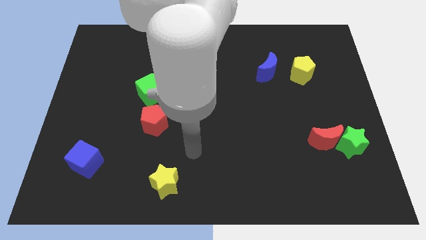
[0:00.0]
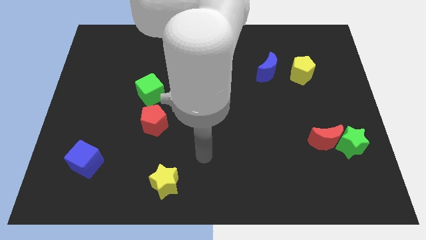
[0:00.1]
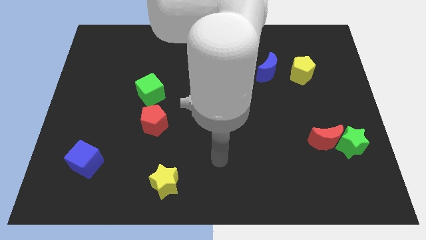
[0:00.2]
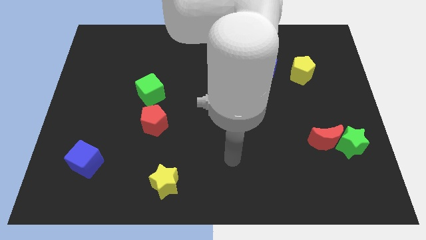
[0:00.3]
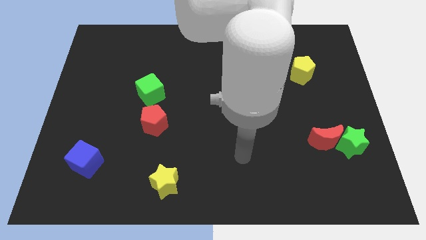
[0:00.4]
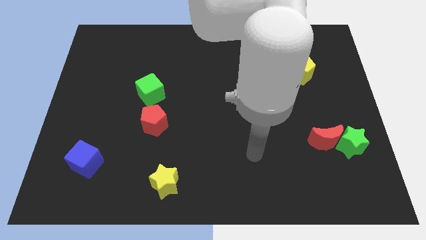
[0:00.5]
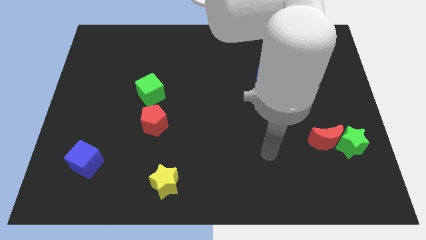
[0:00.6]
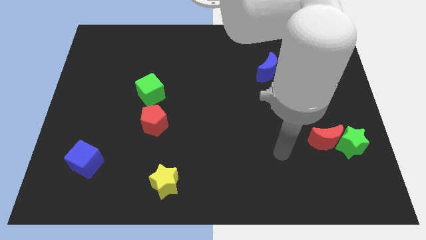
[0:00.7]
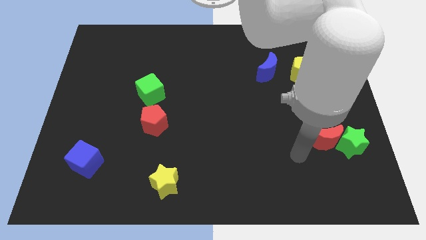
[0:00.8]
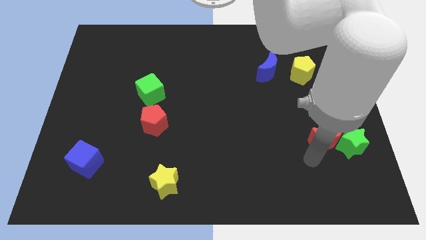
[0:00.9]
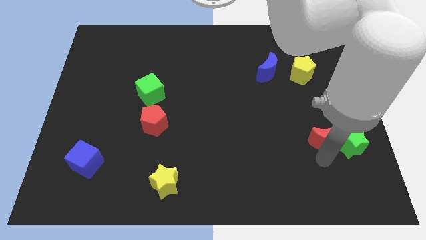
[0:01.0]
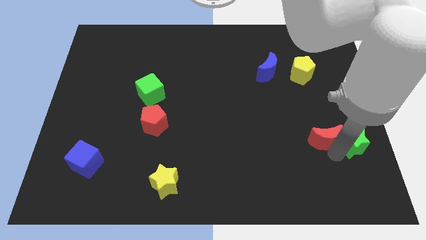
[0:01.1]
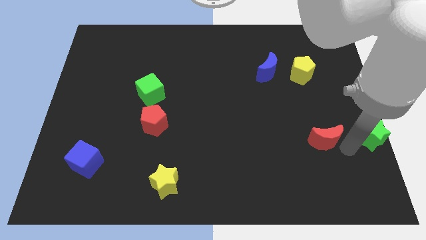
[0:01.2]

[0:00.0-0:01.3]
separate the red moon from the green star

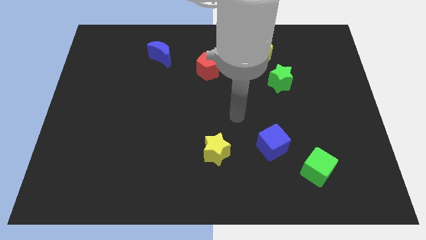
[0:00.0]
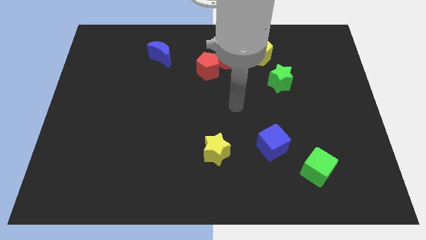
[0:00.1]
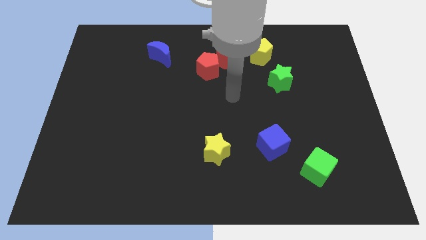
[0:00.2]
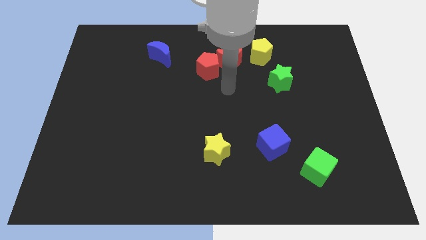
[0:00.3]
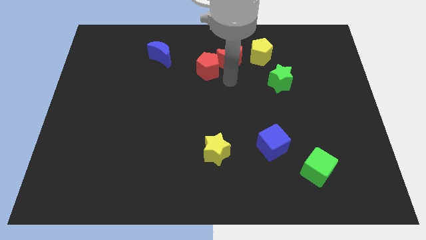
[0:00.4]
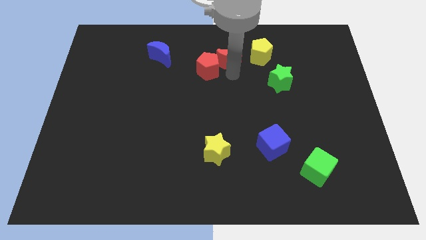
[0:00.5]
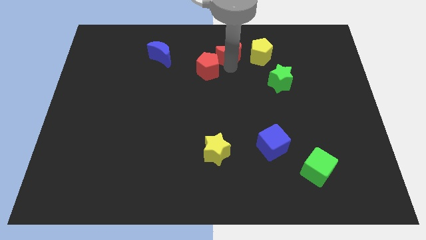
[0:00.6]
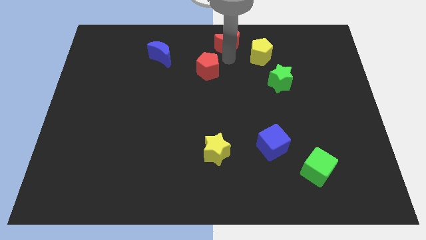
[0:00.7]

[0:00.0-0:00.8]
pull the red pentagon apart from the red moon

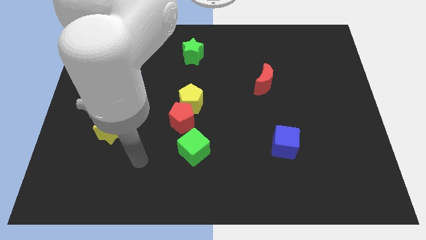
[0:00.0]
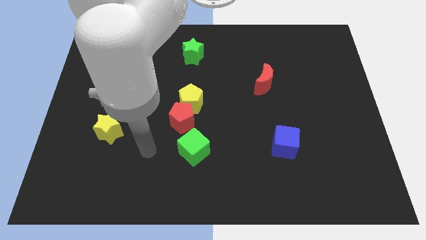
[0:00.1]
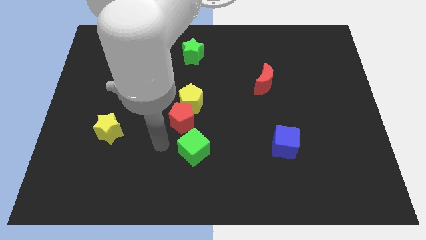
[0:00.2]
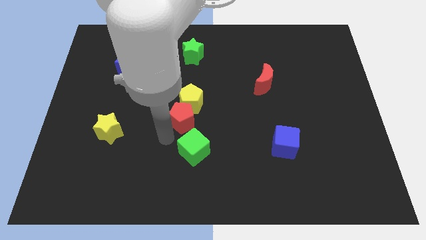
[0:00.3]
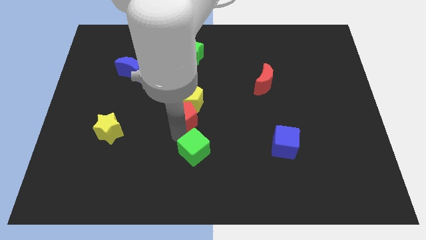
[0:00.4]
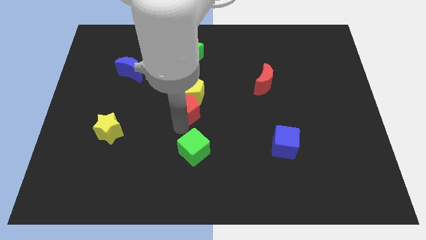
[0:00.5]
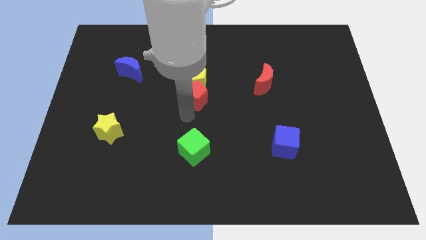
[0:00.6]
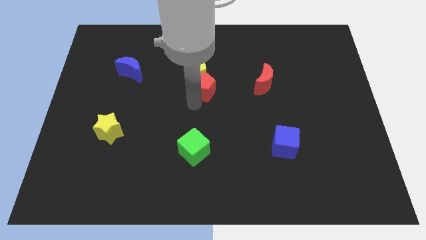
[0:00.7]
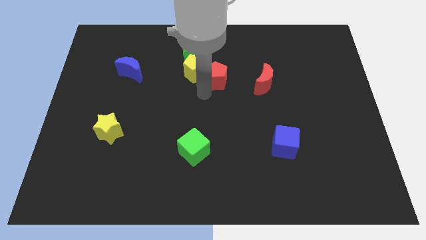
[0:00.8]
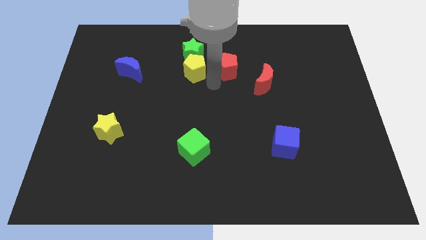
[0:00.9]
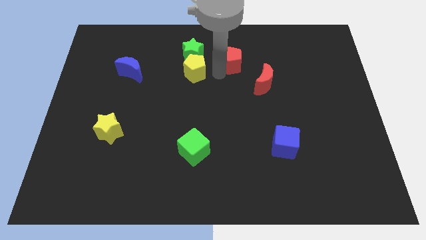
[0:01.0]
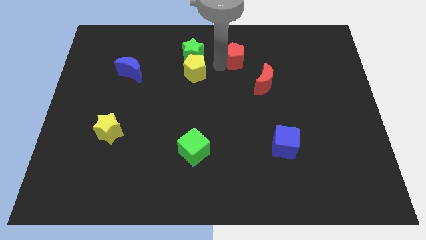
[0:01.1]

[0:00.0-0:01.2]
move the yellow pentagon away from the red pentagon

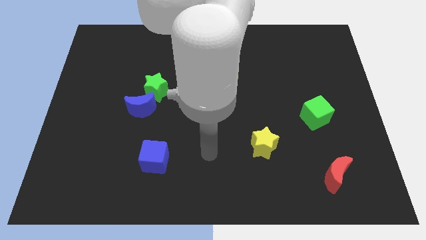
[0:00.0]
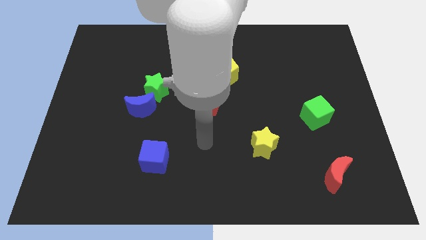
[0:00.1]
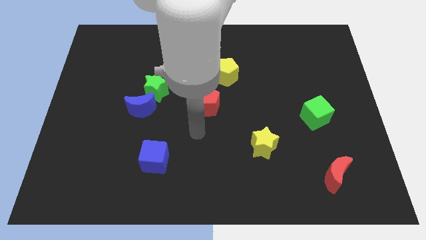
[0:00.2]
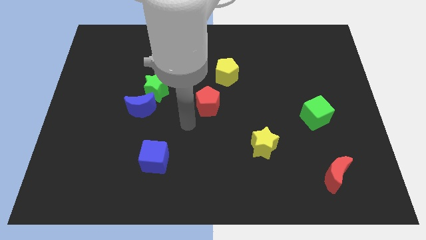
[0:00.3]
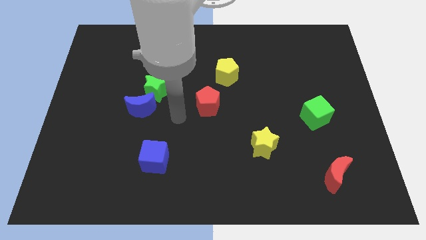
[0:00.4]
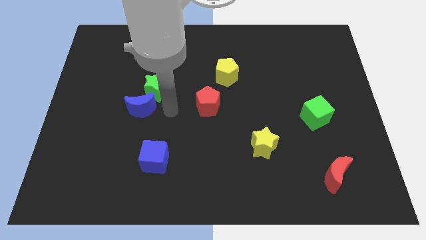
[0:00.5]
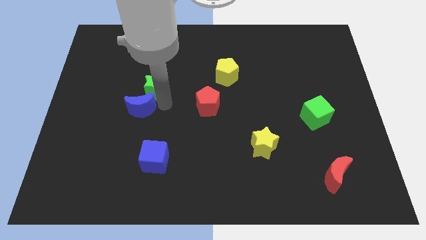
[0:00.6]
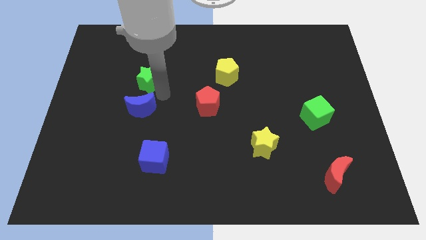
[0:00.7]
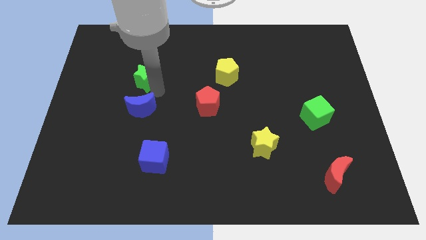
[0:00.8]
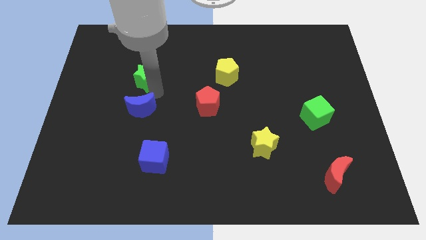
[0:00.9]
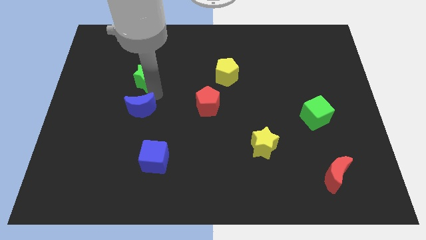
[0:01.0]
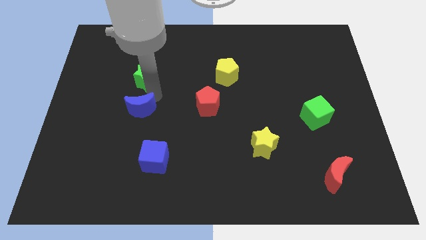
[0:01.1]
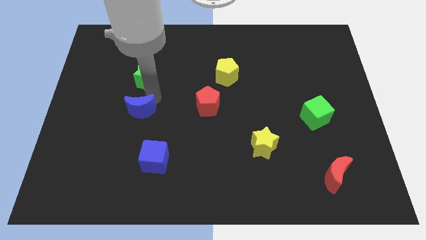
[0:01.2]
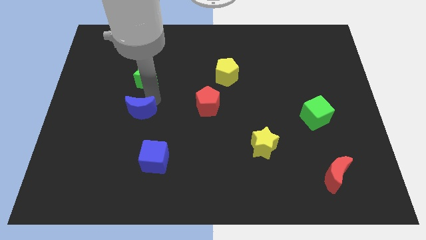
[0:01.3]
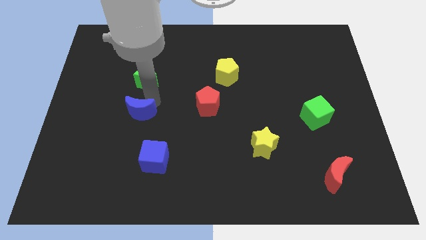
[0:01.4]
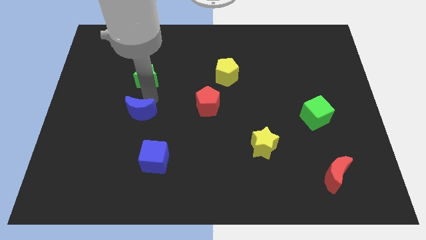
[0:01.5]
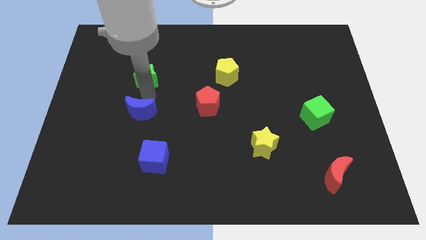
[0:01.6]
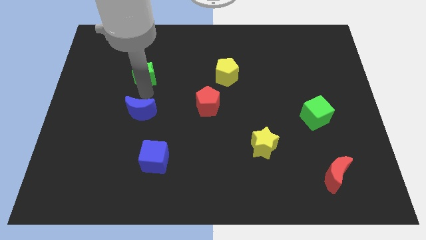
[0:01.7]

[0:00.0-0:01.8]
move the blue moon away from the green star

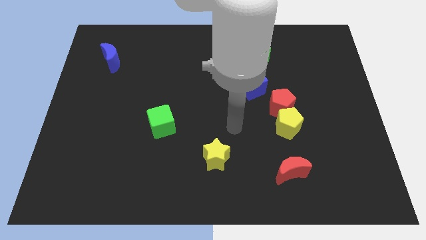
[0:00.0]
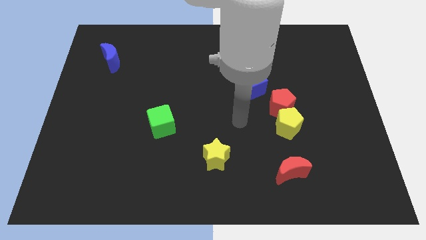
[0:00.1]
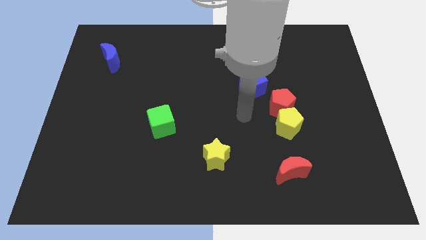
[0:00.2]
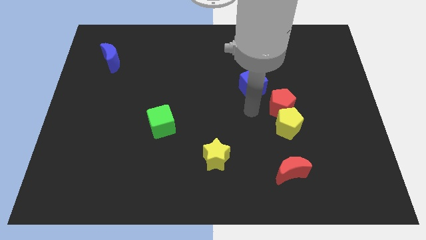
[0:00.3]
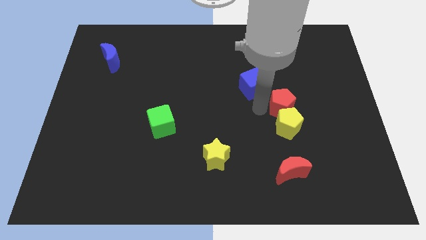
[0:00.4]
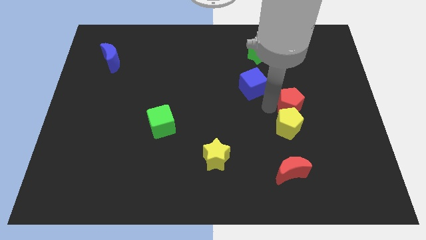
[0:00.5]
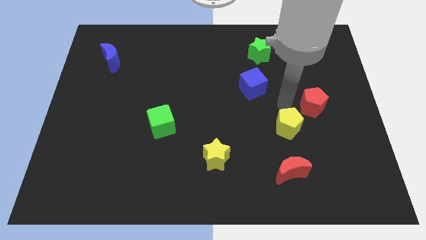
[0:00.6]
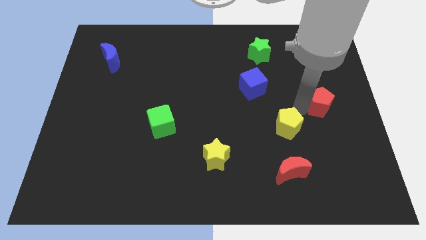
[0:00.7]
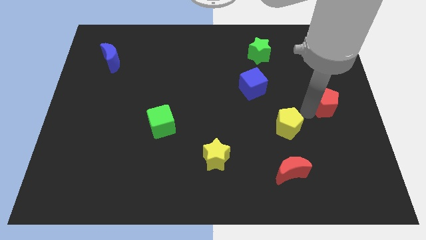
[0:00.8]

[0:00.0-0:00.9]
separate the yellow pentagon from the red pentagon

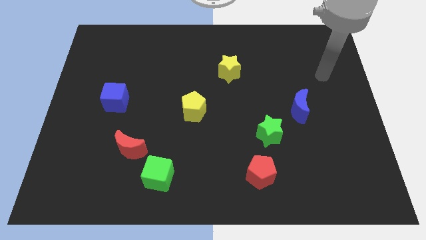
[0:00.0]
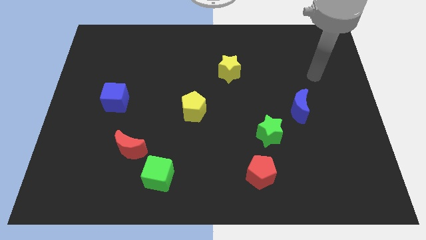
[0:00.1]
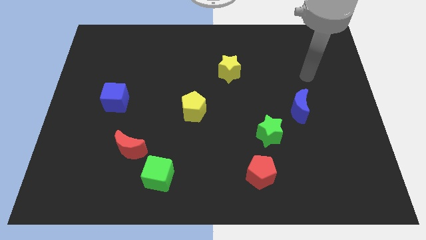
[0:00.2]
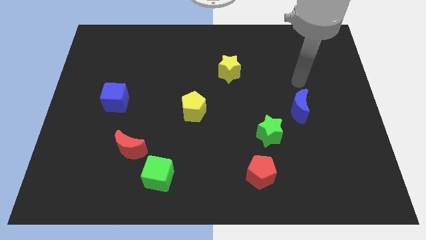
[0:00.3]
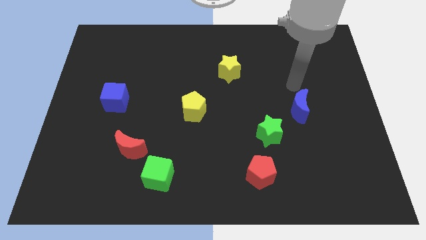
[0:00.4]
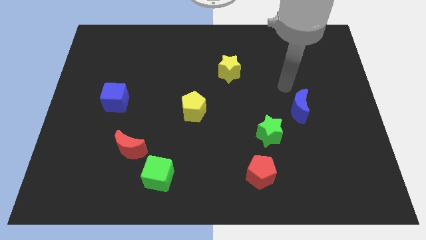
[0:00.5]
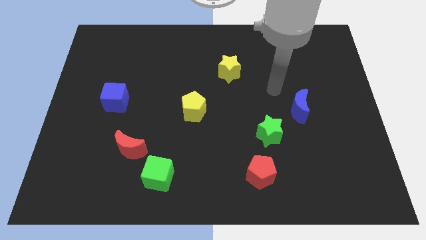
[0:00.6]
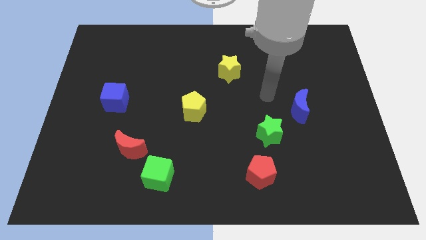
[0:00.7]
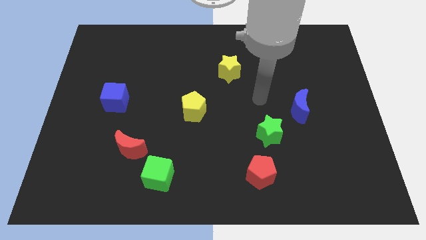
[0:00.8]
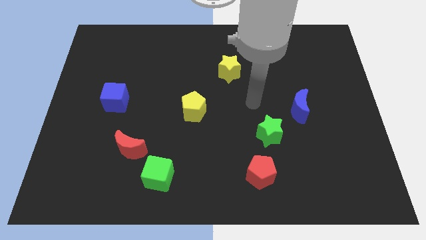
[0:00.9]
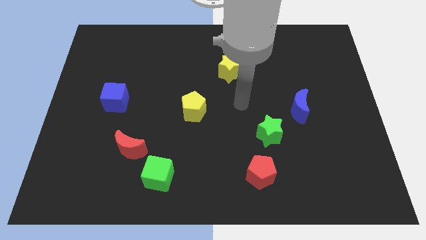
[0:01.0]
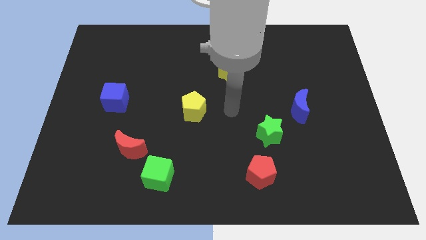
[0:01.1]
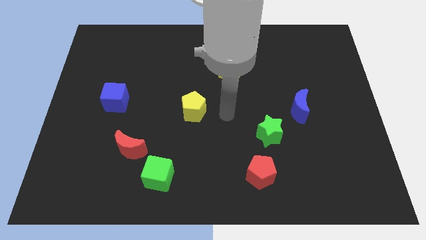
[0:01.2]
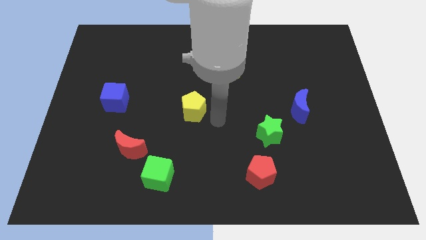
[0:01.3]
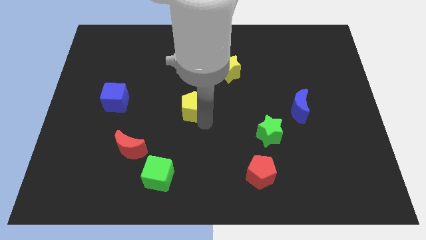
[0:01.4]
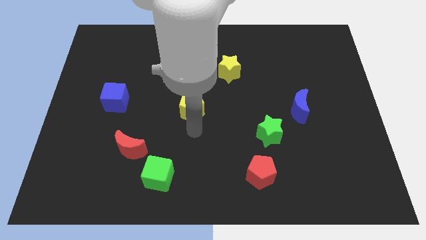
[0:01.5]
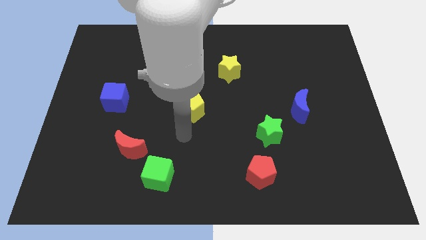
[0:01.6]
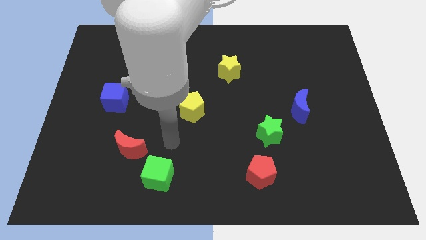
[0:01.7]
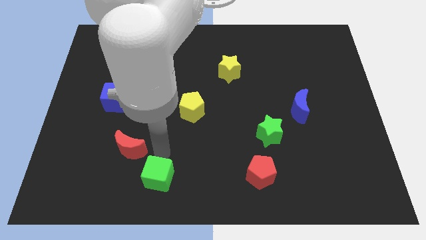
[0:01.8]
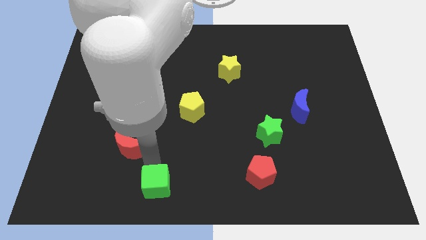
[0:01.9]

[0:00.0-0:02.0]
move the red moon away from the green cube

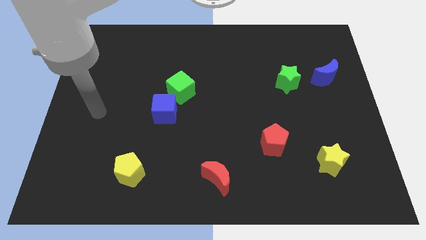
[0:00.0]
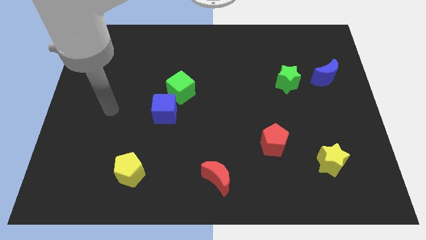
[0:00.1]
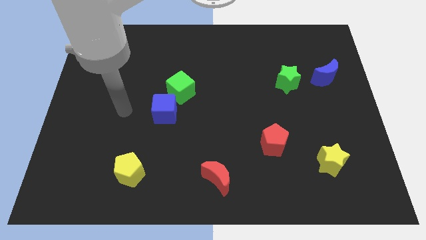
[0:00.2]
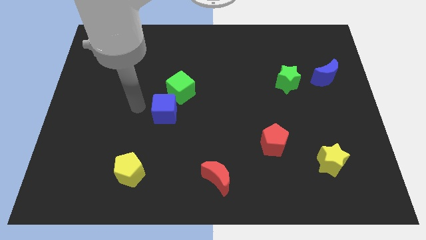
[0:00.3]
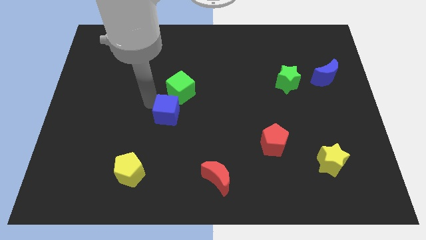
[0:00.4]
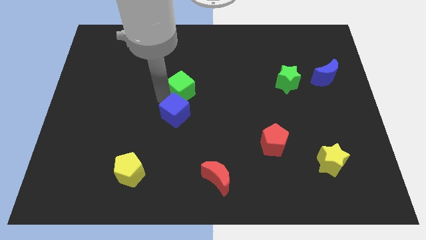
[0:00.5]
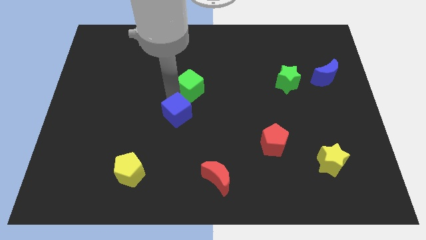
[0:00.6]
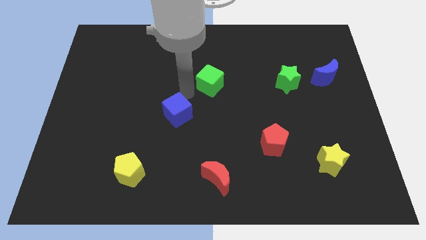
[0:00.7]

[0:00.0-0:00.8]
separate the blue cube from the green cube

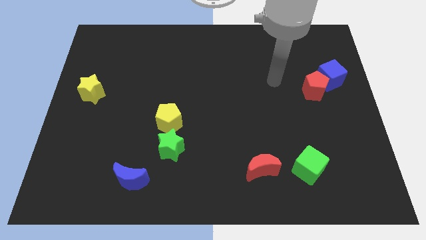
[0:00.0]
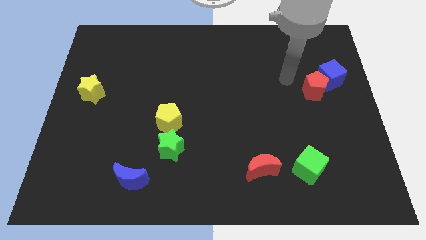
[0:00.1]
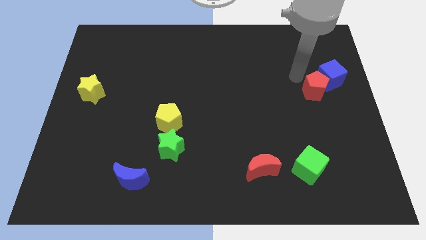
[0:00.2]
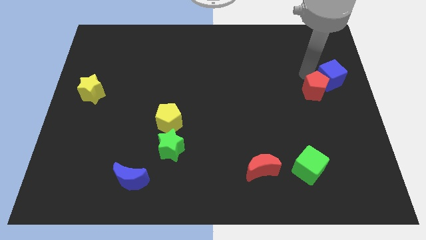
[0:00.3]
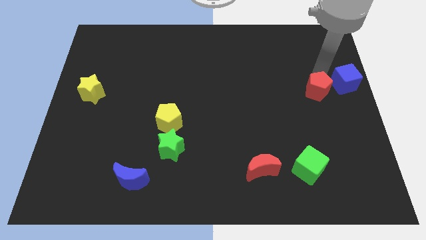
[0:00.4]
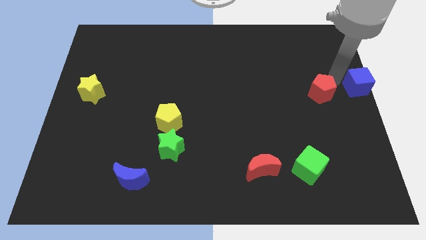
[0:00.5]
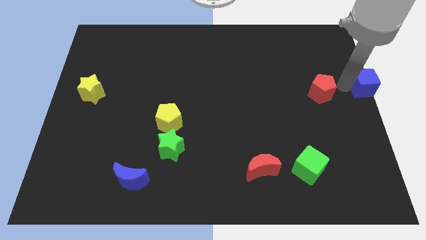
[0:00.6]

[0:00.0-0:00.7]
separate the red pentagon from the blue cube
